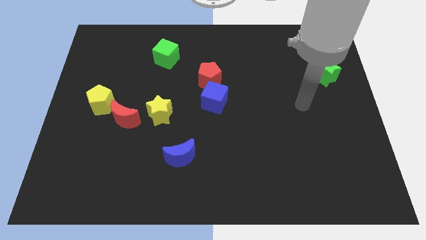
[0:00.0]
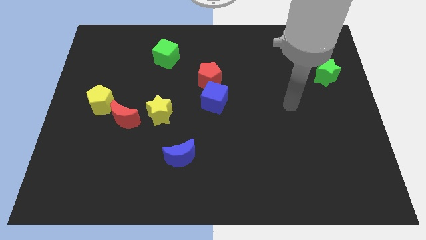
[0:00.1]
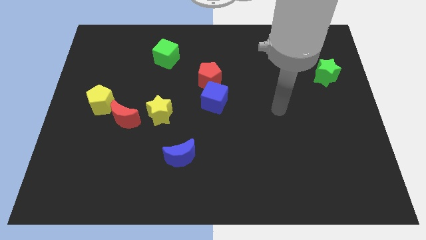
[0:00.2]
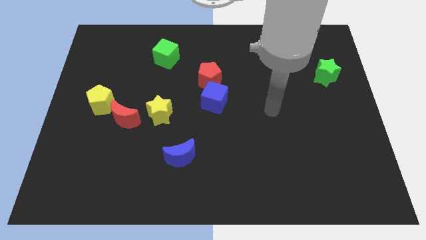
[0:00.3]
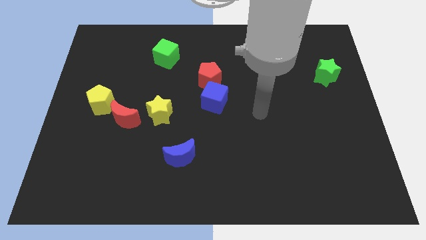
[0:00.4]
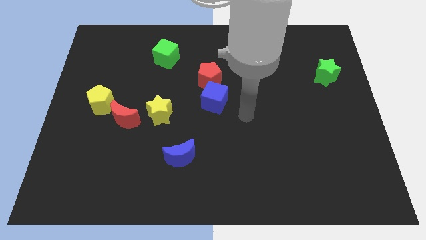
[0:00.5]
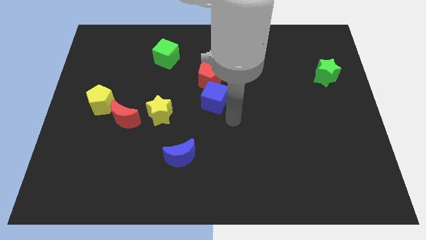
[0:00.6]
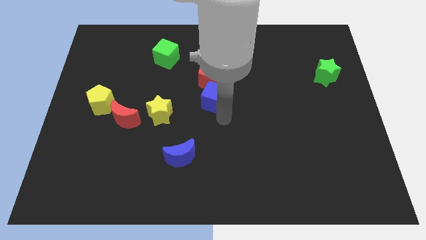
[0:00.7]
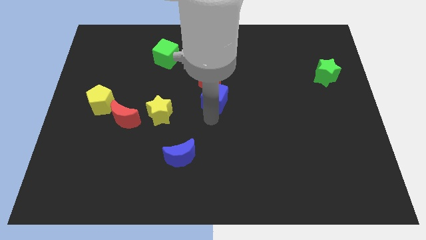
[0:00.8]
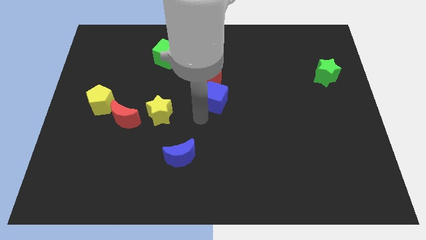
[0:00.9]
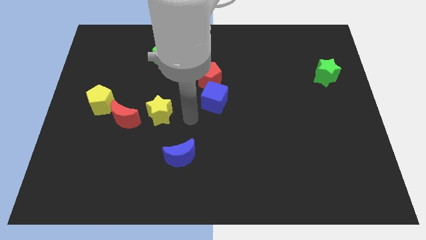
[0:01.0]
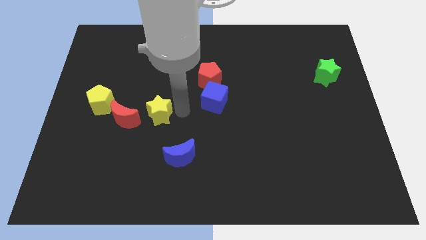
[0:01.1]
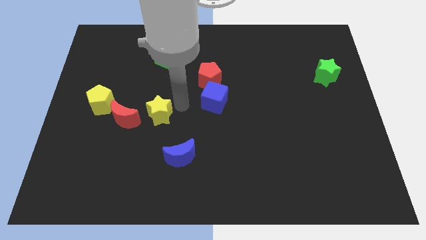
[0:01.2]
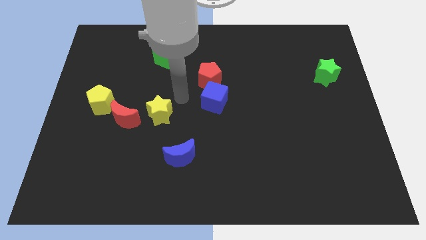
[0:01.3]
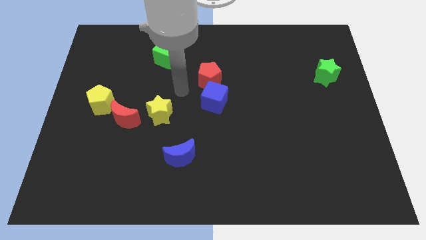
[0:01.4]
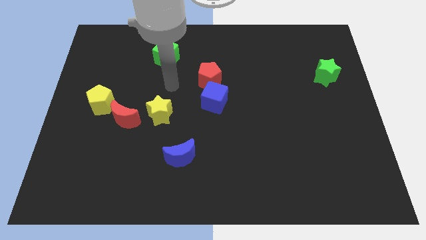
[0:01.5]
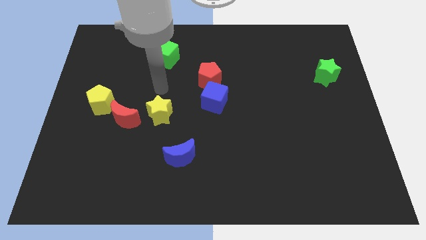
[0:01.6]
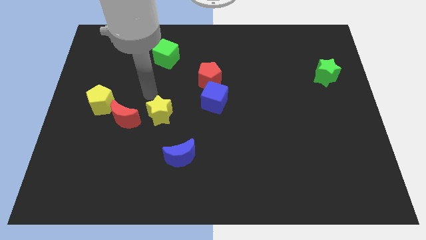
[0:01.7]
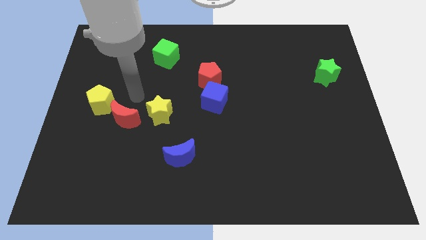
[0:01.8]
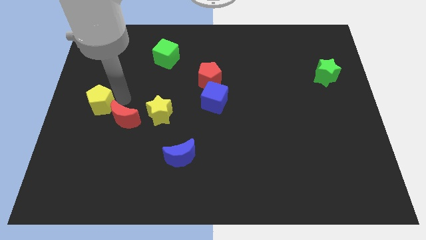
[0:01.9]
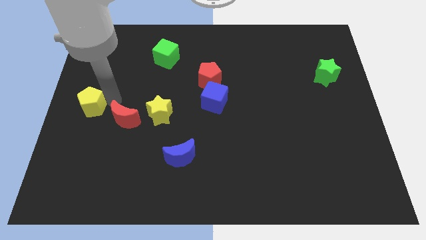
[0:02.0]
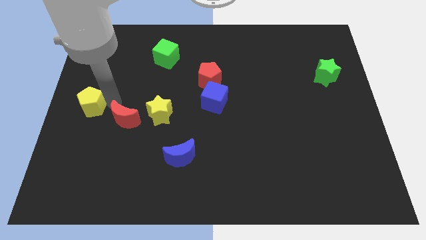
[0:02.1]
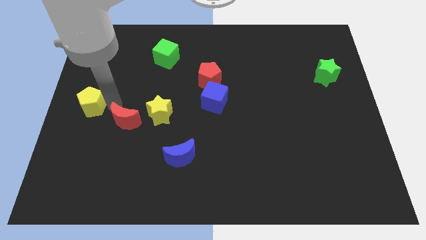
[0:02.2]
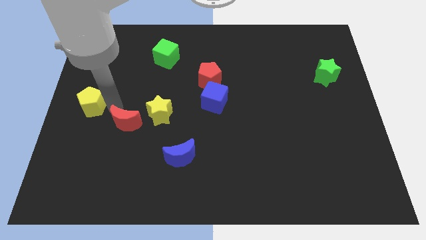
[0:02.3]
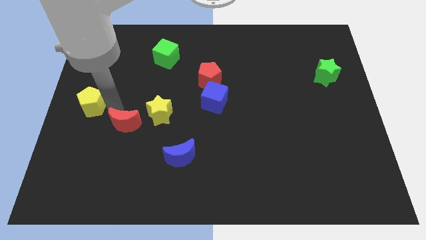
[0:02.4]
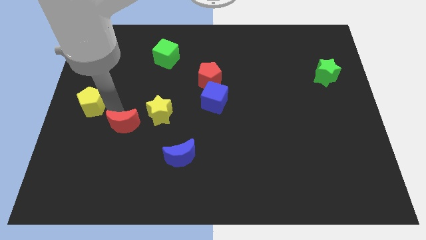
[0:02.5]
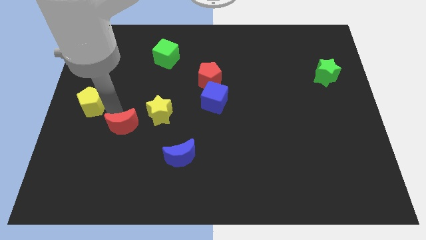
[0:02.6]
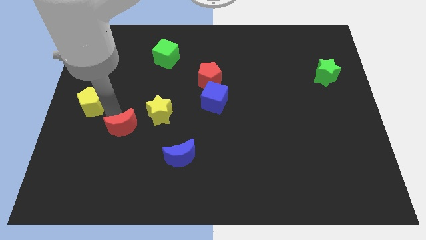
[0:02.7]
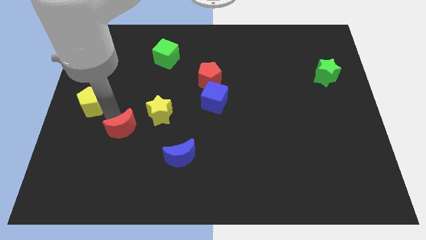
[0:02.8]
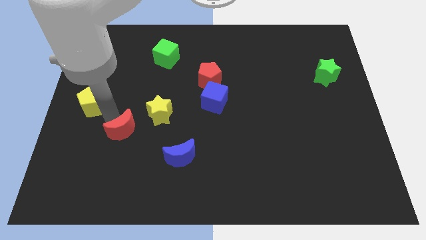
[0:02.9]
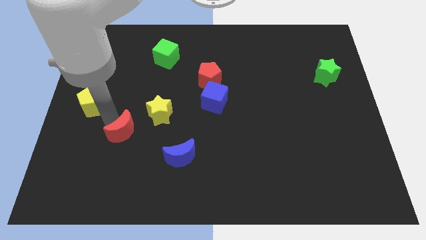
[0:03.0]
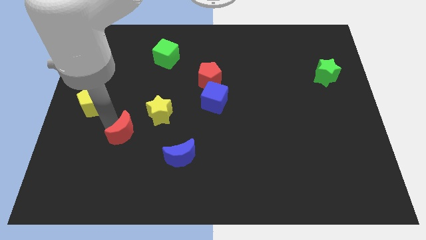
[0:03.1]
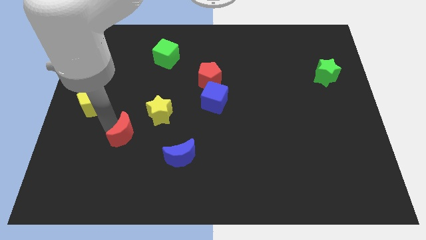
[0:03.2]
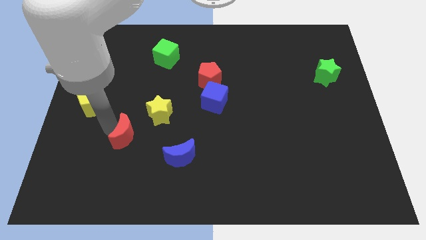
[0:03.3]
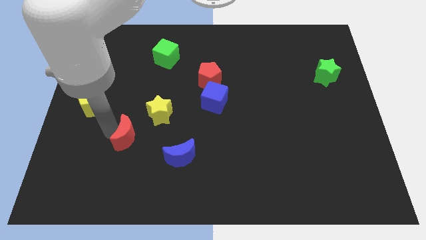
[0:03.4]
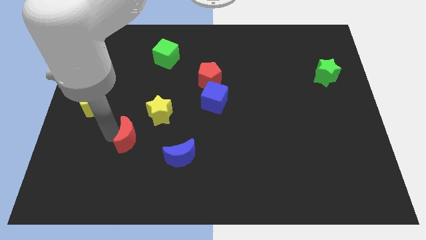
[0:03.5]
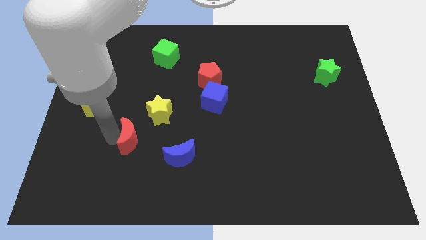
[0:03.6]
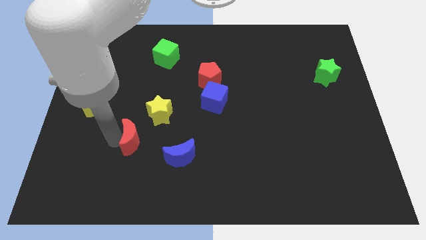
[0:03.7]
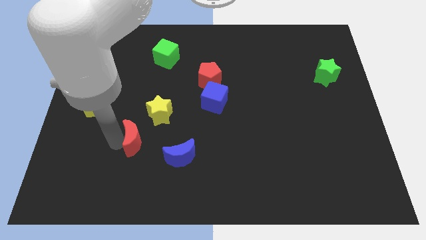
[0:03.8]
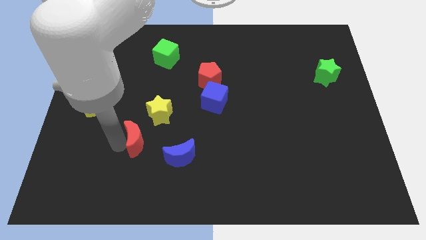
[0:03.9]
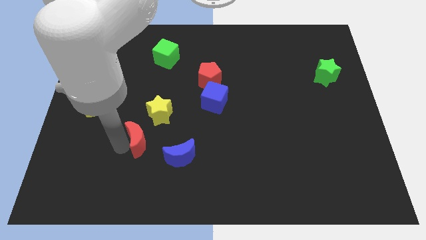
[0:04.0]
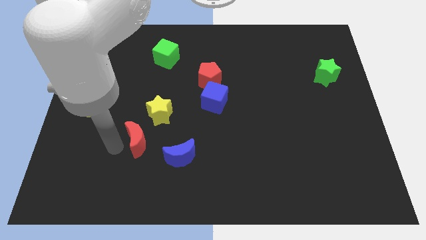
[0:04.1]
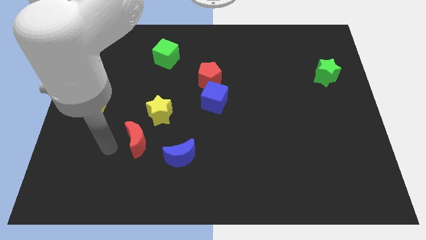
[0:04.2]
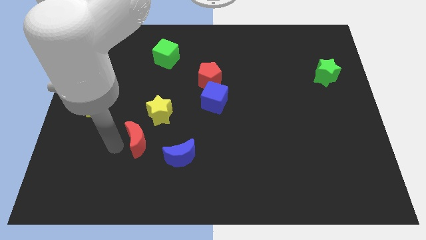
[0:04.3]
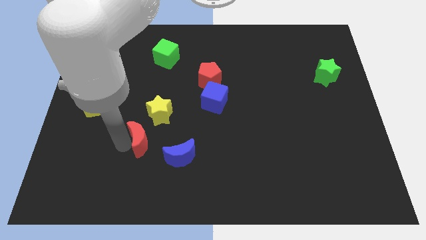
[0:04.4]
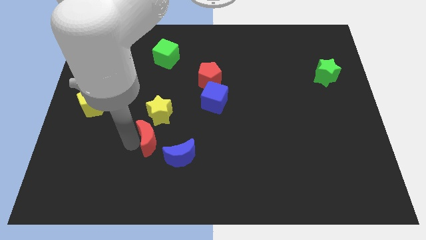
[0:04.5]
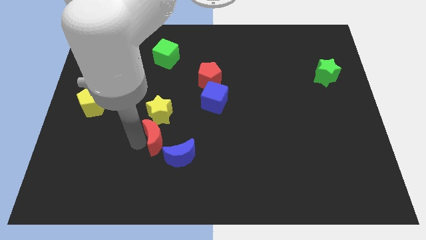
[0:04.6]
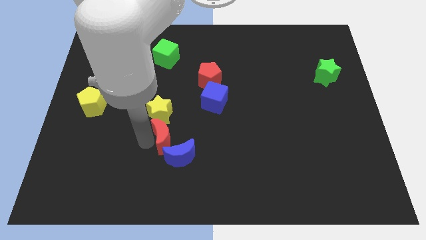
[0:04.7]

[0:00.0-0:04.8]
push the red moon slightly right

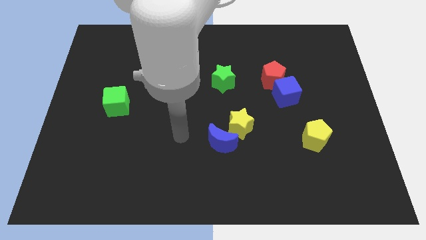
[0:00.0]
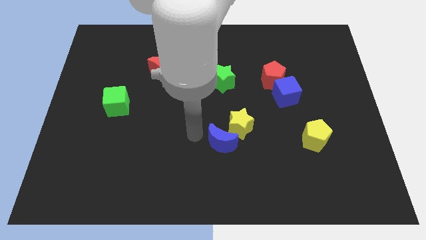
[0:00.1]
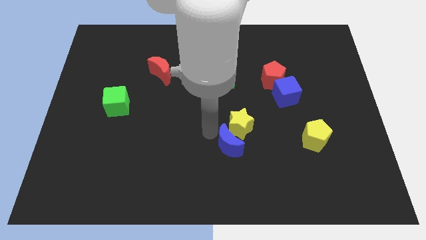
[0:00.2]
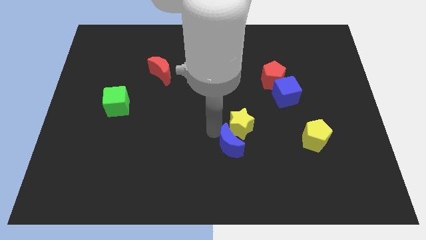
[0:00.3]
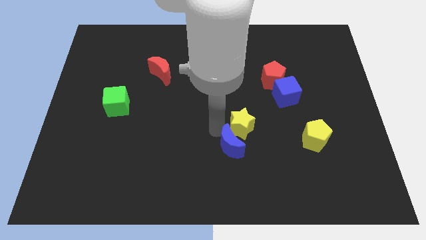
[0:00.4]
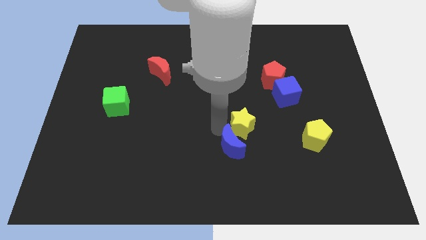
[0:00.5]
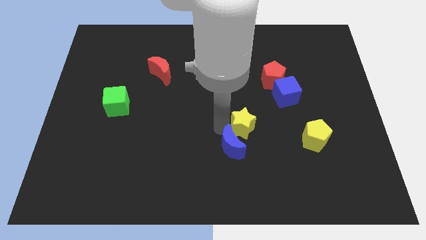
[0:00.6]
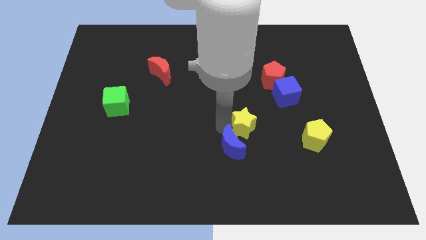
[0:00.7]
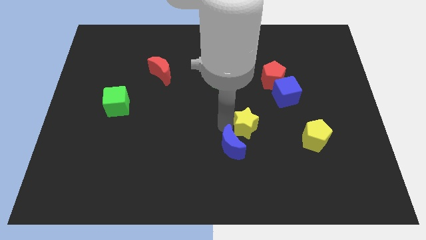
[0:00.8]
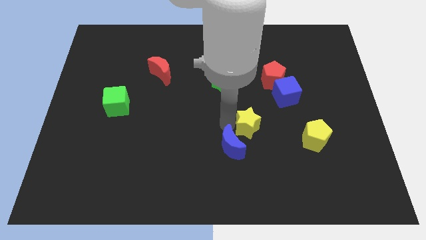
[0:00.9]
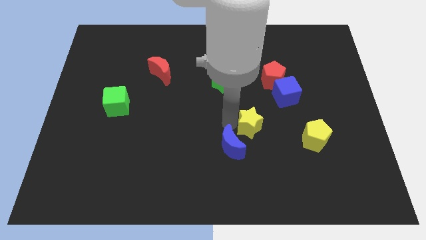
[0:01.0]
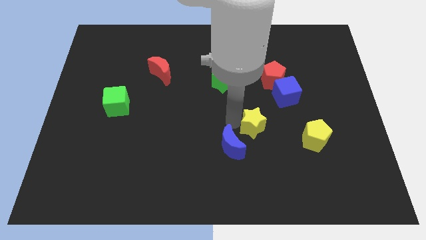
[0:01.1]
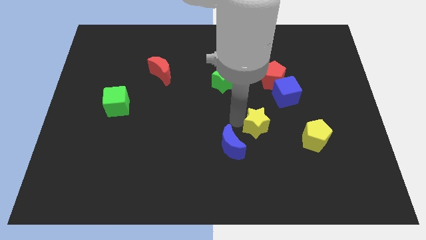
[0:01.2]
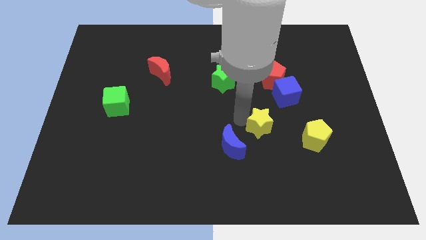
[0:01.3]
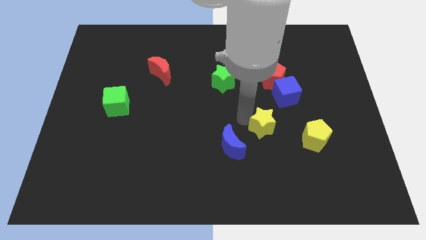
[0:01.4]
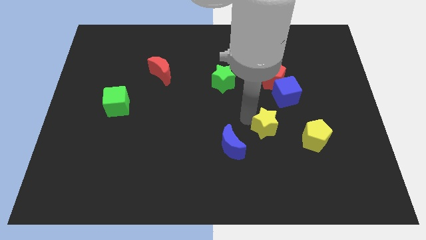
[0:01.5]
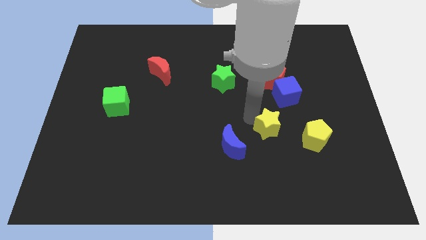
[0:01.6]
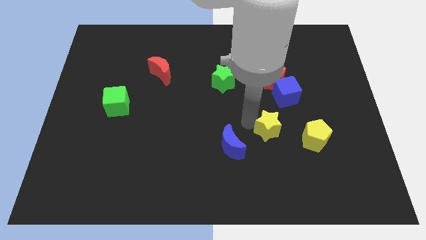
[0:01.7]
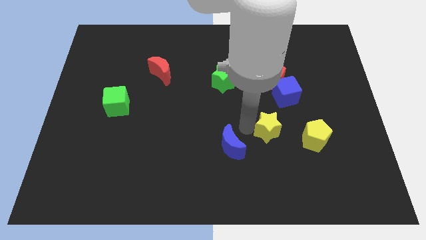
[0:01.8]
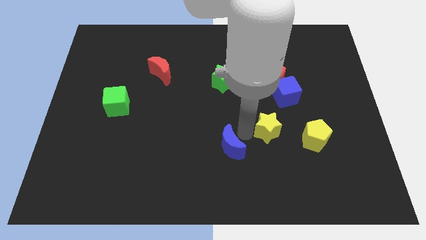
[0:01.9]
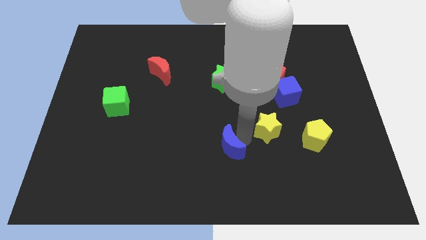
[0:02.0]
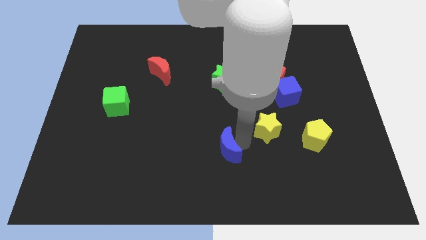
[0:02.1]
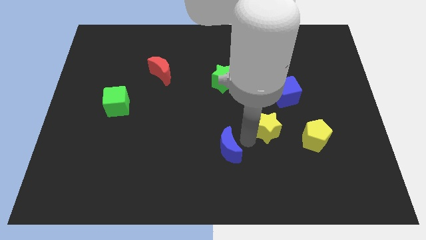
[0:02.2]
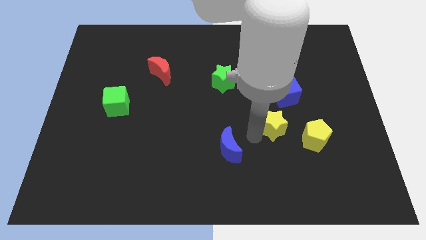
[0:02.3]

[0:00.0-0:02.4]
slide the yellow star to the right a little bit

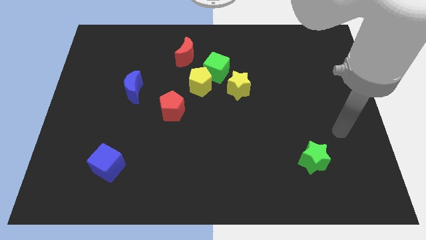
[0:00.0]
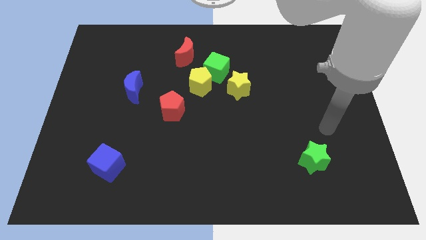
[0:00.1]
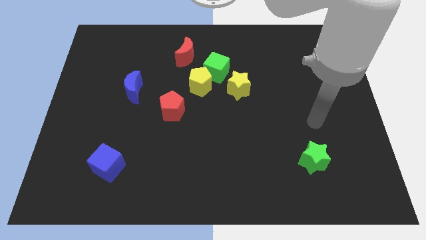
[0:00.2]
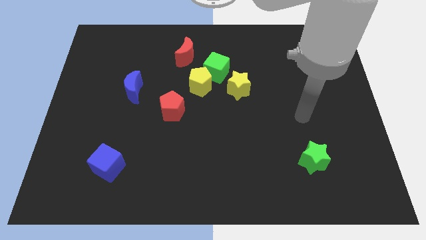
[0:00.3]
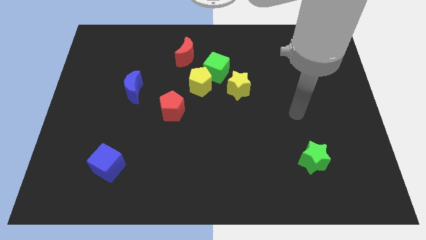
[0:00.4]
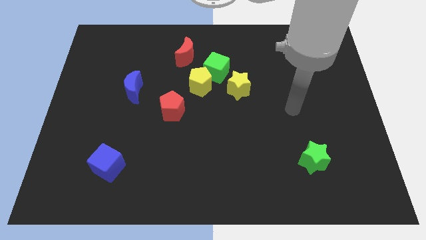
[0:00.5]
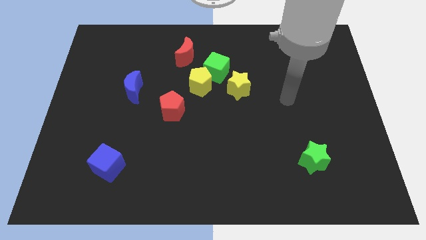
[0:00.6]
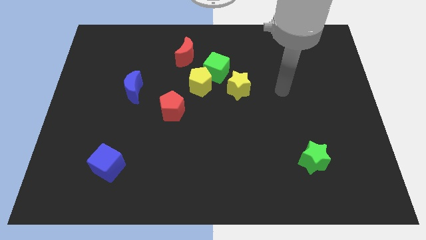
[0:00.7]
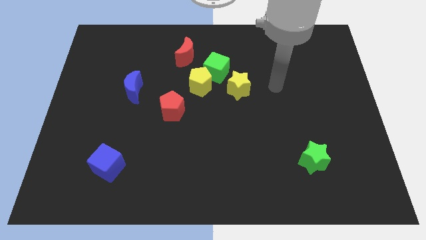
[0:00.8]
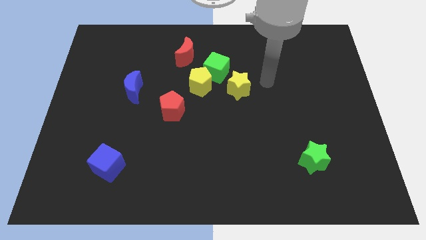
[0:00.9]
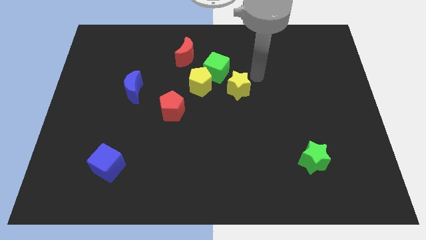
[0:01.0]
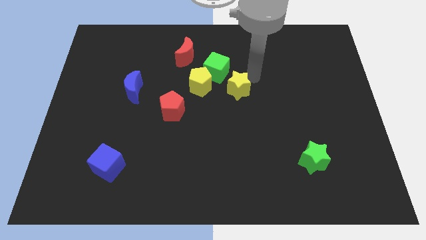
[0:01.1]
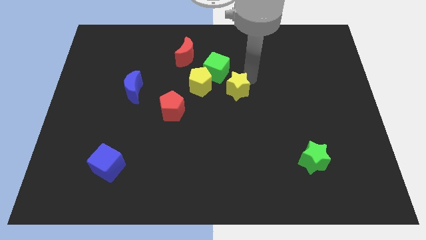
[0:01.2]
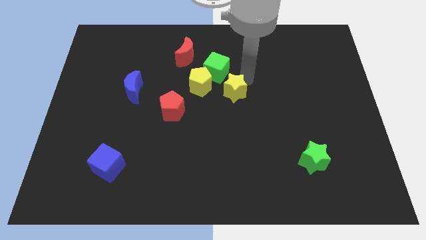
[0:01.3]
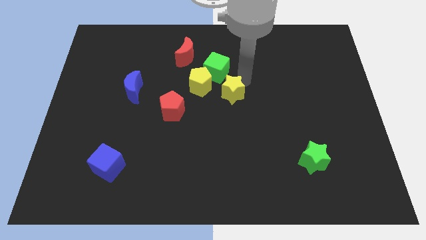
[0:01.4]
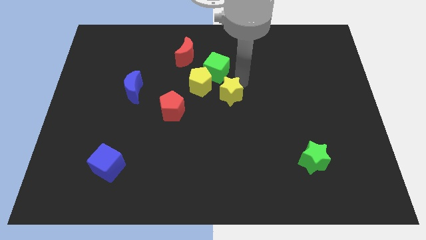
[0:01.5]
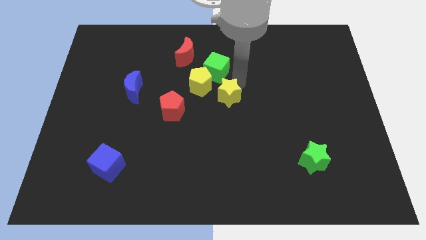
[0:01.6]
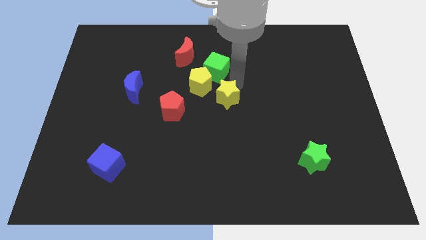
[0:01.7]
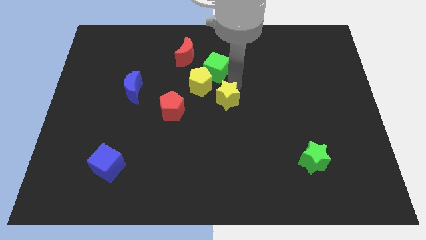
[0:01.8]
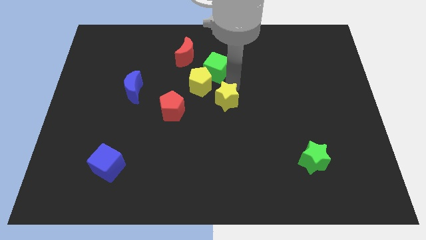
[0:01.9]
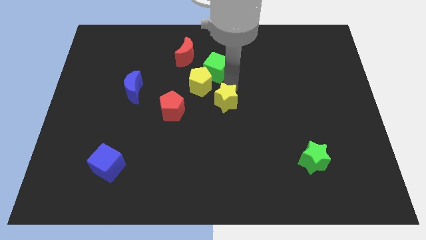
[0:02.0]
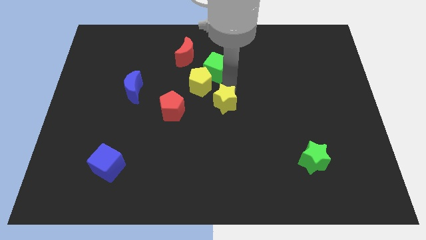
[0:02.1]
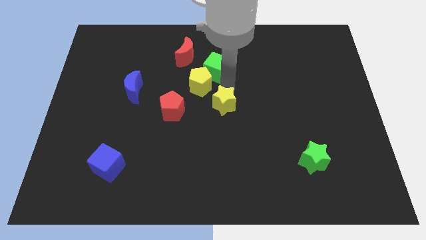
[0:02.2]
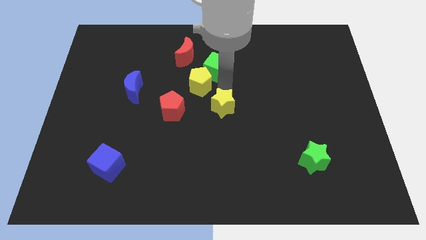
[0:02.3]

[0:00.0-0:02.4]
push the yellow star a bit downwards and to the left diagonally
